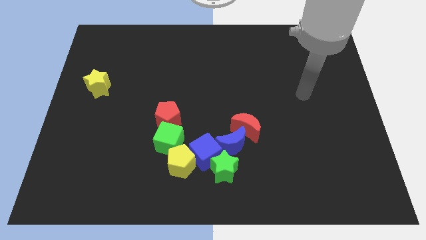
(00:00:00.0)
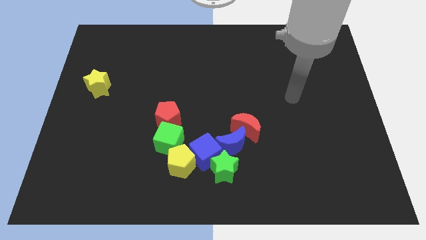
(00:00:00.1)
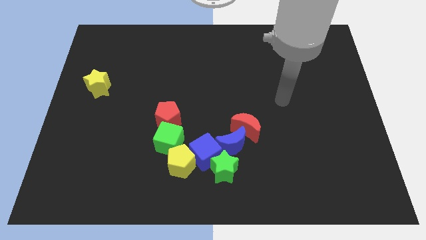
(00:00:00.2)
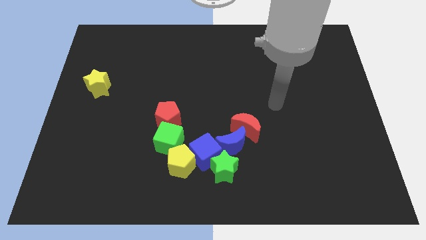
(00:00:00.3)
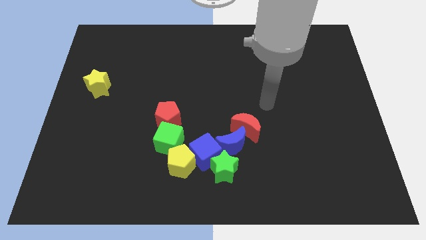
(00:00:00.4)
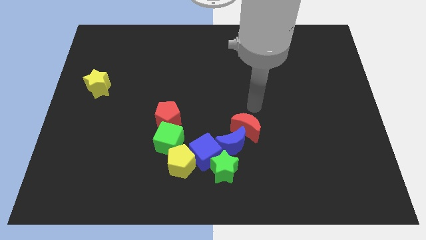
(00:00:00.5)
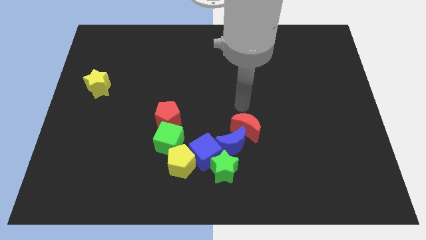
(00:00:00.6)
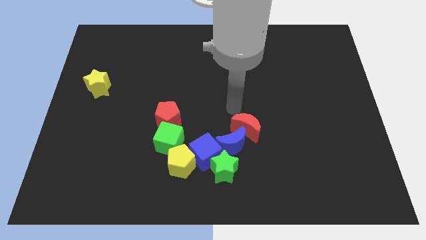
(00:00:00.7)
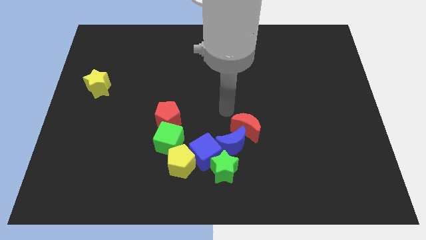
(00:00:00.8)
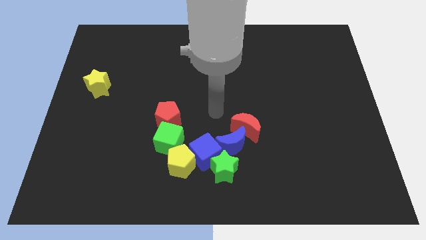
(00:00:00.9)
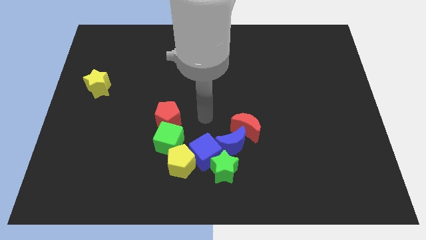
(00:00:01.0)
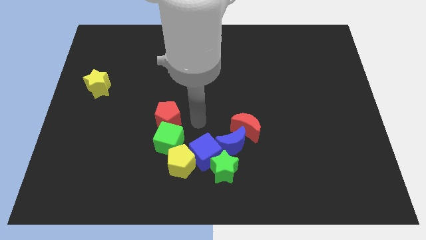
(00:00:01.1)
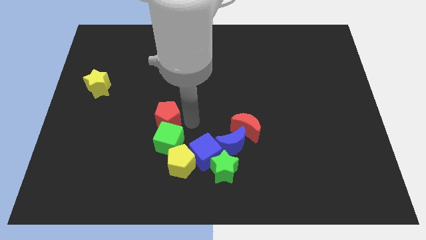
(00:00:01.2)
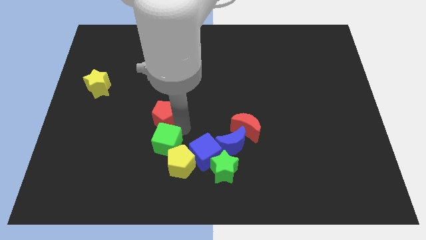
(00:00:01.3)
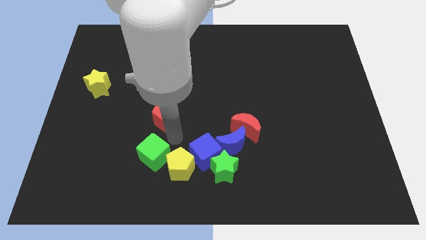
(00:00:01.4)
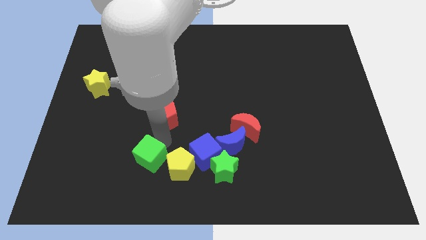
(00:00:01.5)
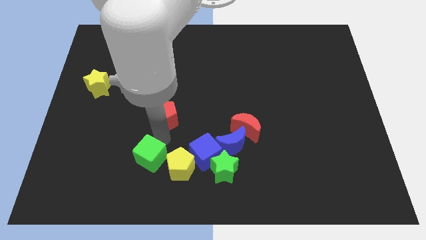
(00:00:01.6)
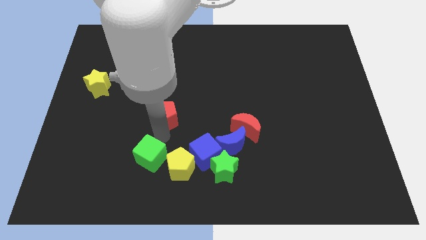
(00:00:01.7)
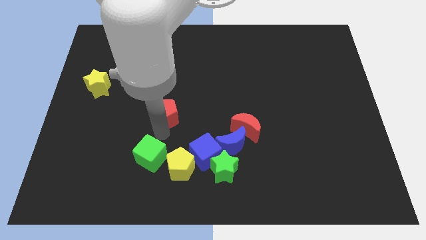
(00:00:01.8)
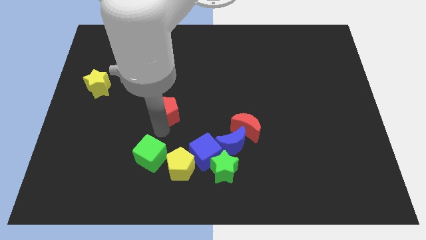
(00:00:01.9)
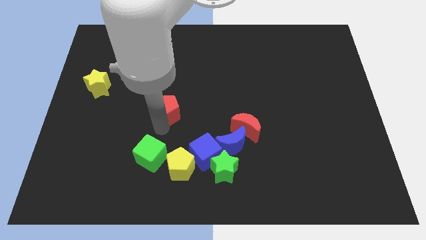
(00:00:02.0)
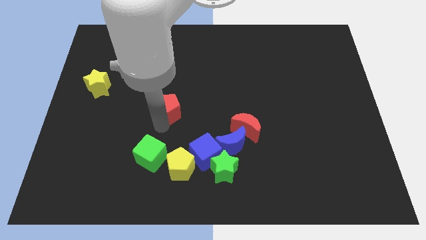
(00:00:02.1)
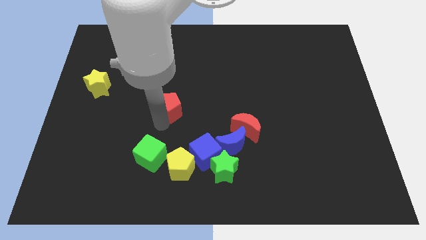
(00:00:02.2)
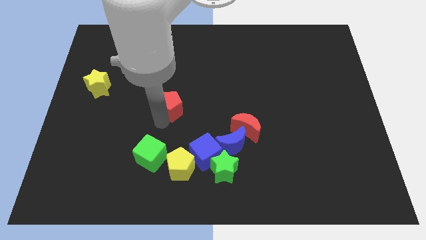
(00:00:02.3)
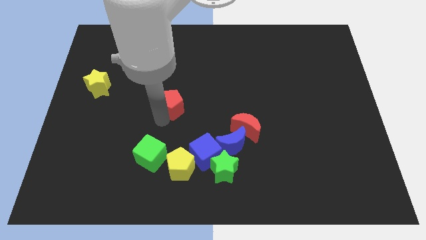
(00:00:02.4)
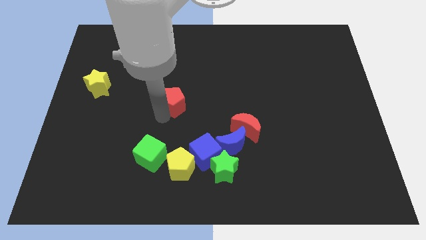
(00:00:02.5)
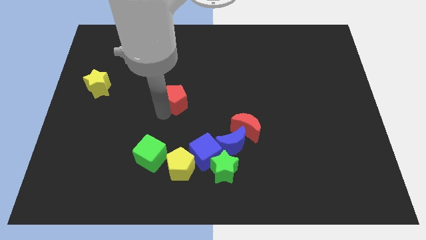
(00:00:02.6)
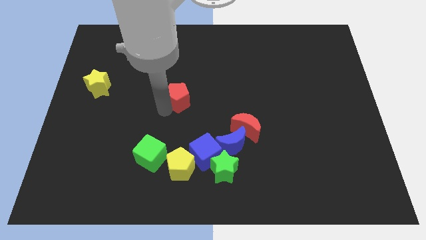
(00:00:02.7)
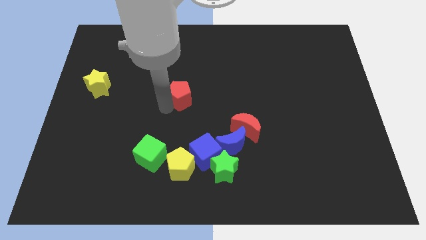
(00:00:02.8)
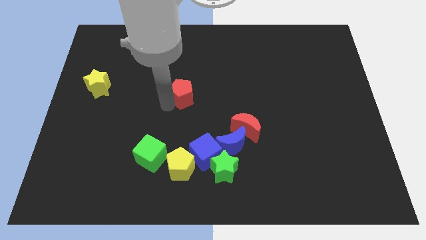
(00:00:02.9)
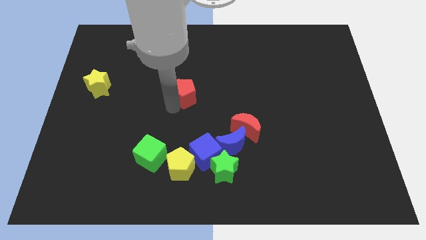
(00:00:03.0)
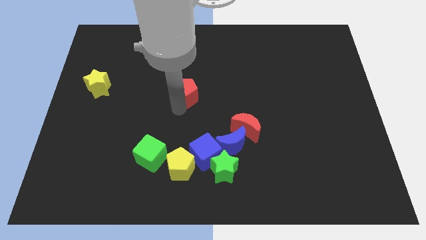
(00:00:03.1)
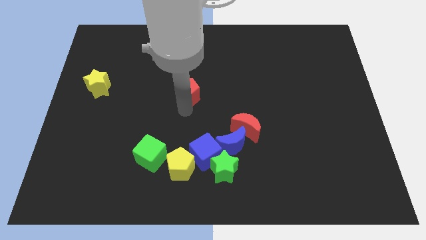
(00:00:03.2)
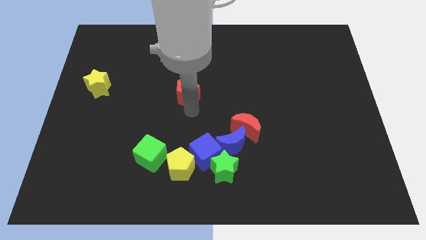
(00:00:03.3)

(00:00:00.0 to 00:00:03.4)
move the red pentagon upwards slightly

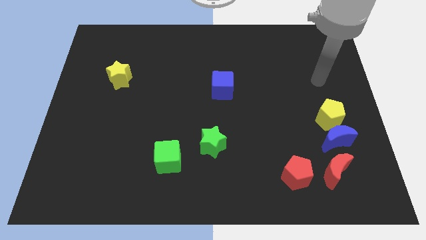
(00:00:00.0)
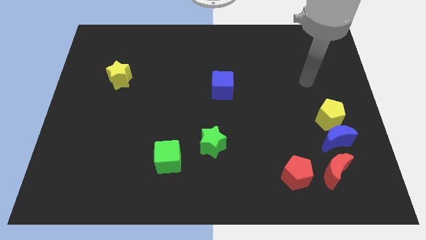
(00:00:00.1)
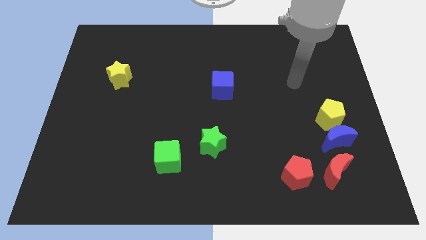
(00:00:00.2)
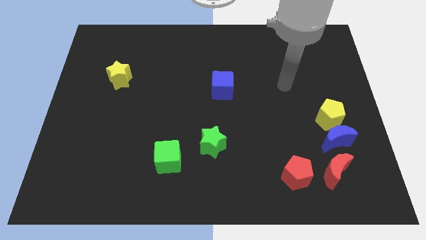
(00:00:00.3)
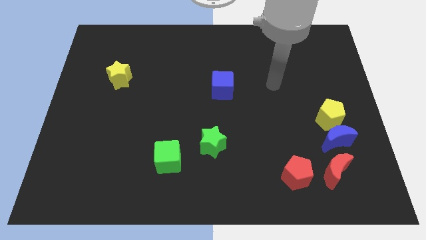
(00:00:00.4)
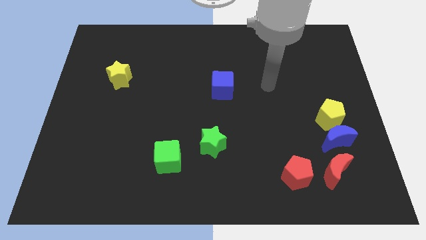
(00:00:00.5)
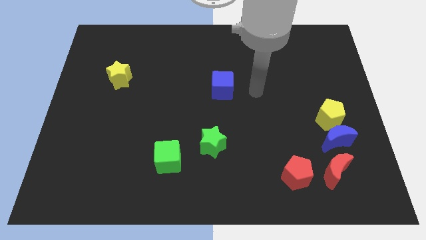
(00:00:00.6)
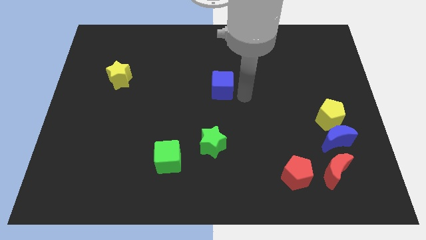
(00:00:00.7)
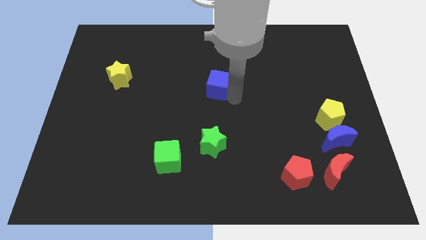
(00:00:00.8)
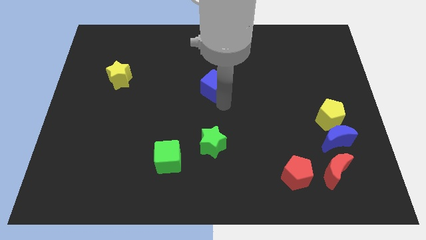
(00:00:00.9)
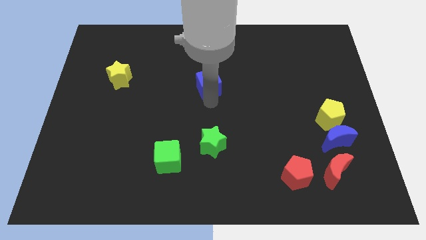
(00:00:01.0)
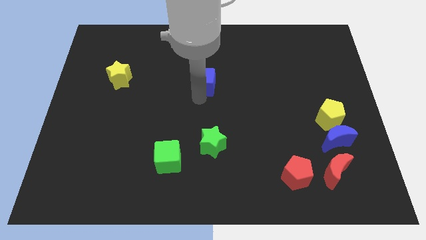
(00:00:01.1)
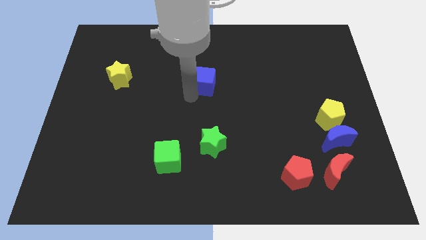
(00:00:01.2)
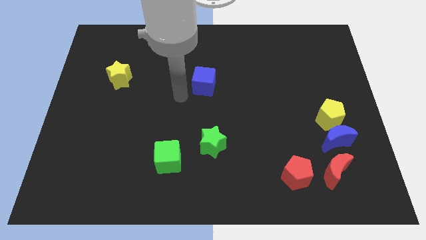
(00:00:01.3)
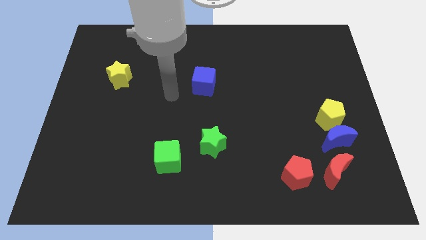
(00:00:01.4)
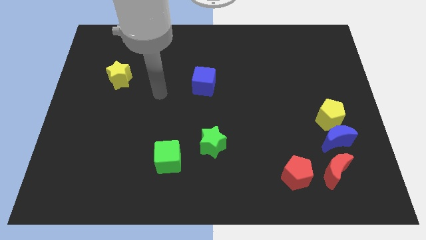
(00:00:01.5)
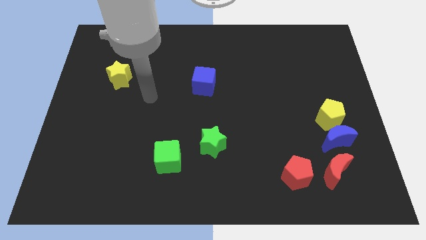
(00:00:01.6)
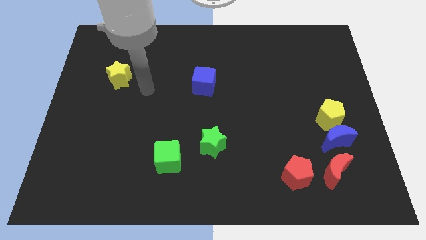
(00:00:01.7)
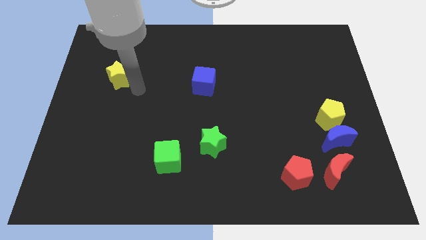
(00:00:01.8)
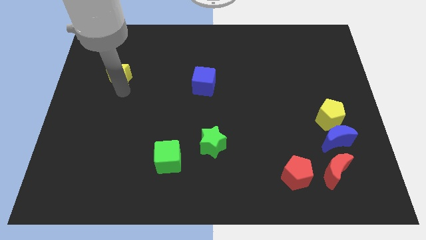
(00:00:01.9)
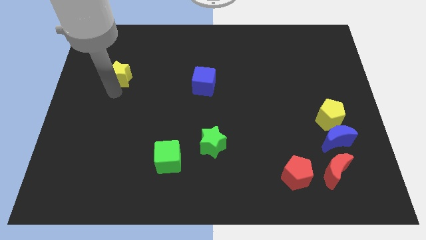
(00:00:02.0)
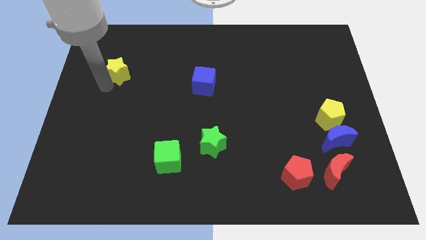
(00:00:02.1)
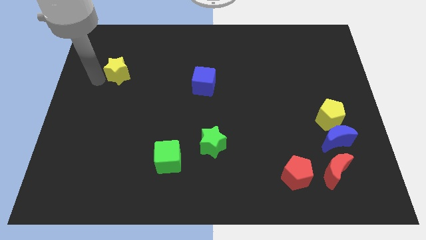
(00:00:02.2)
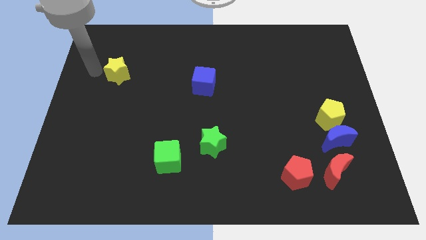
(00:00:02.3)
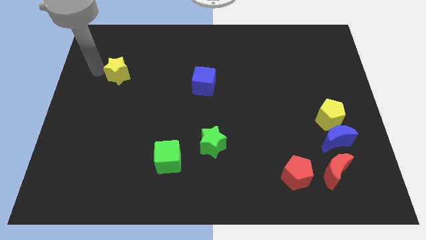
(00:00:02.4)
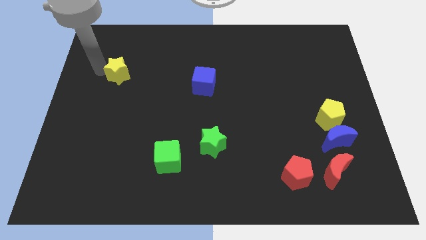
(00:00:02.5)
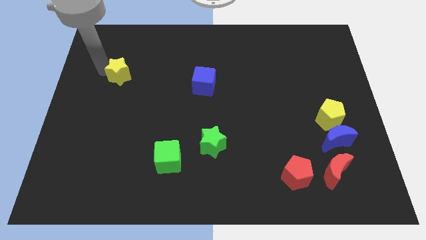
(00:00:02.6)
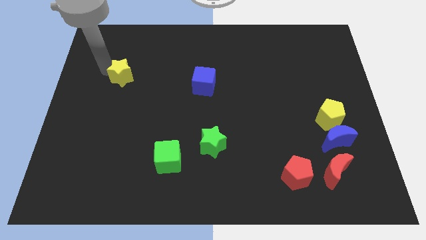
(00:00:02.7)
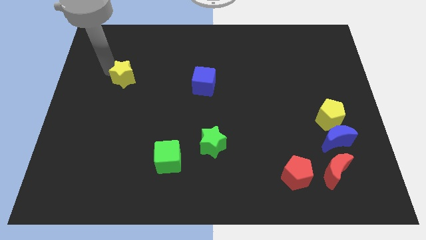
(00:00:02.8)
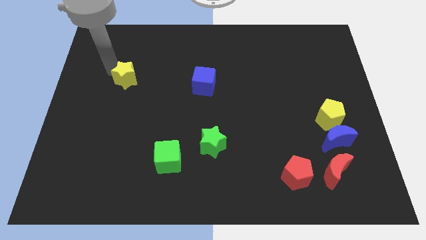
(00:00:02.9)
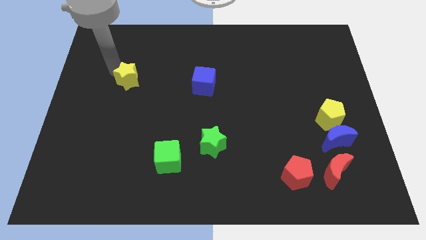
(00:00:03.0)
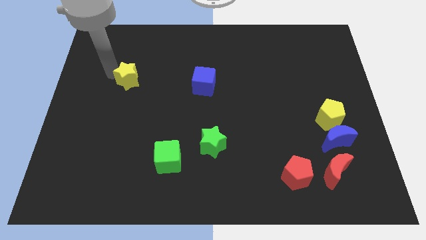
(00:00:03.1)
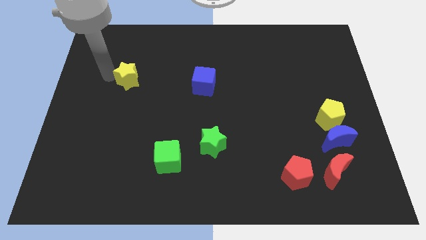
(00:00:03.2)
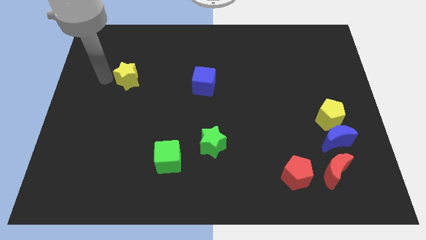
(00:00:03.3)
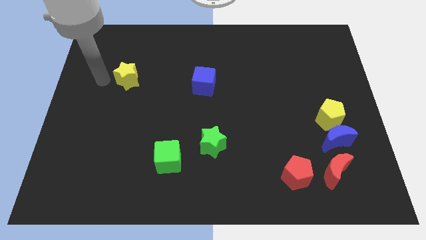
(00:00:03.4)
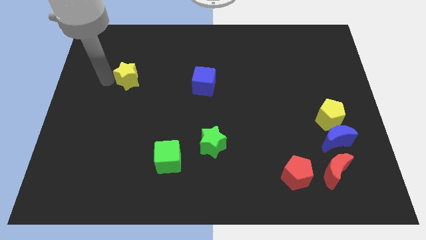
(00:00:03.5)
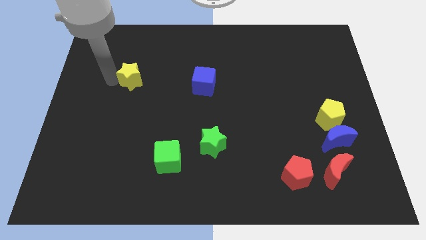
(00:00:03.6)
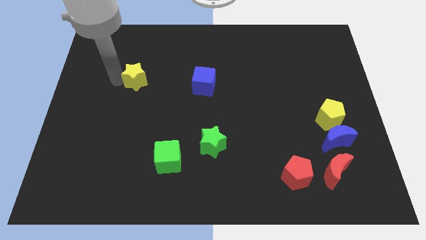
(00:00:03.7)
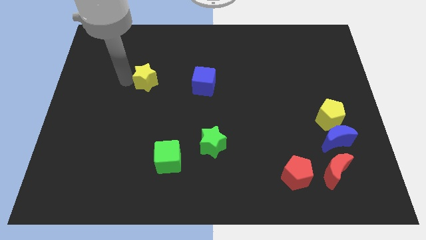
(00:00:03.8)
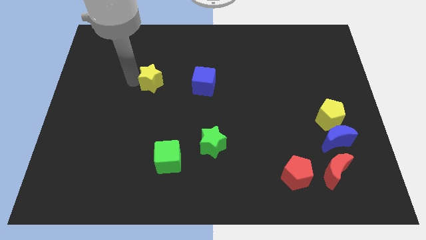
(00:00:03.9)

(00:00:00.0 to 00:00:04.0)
slightly slide the yellow star to the right

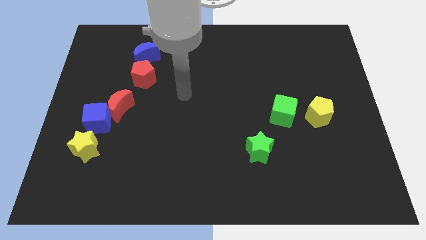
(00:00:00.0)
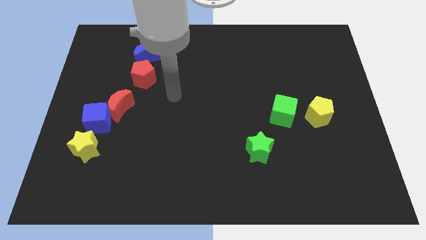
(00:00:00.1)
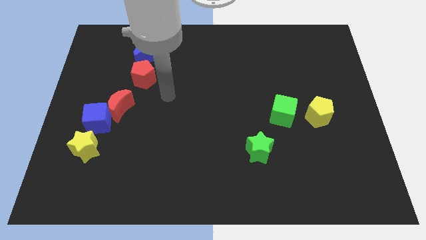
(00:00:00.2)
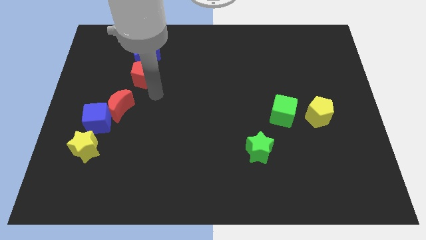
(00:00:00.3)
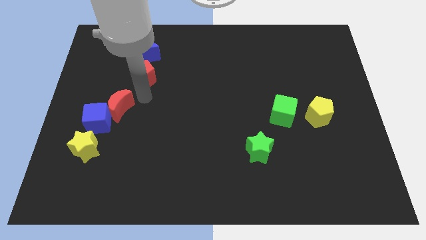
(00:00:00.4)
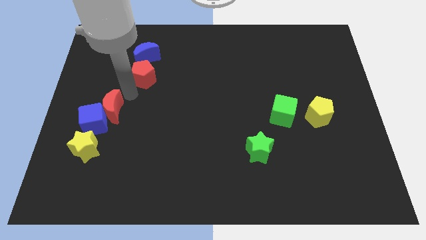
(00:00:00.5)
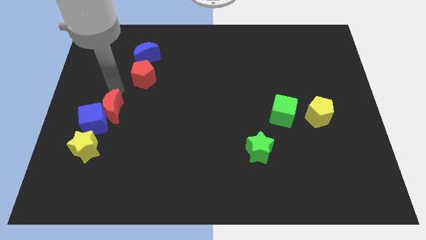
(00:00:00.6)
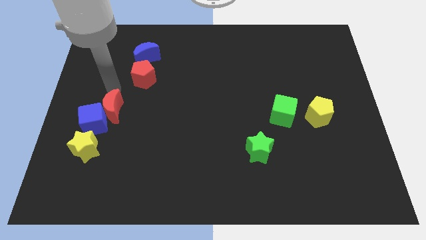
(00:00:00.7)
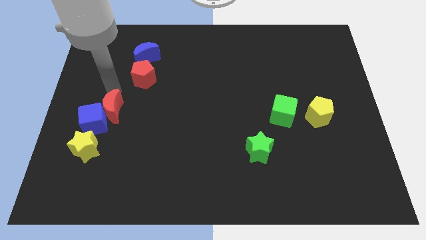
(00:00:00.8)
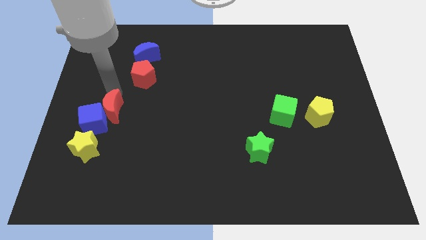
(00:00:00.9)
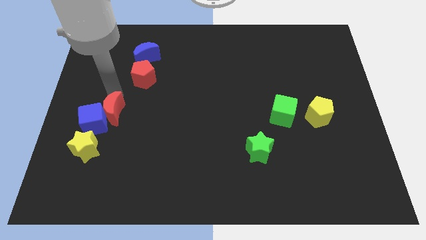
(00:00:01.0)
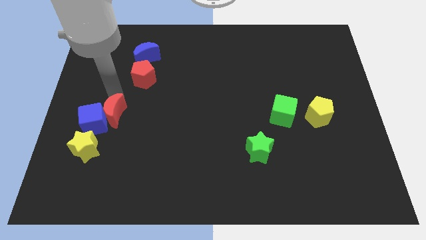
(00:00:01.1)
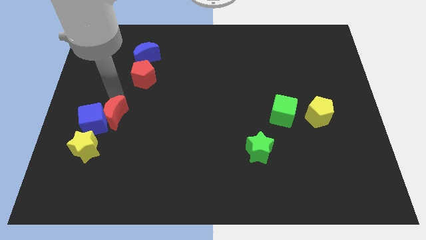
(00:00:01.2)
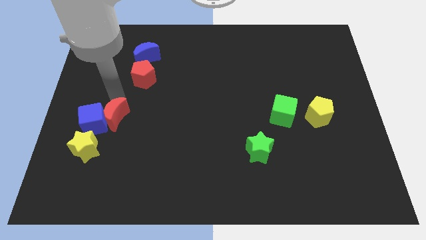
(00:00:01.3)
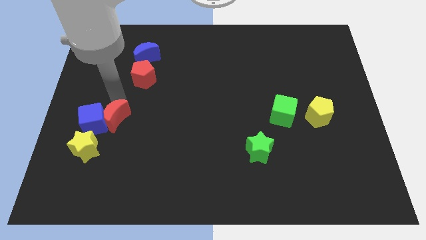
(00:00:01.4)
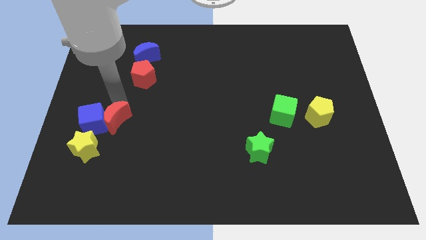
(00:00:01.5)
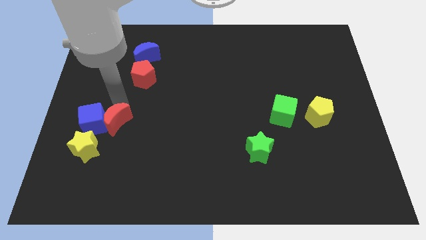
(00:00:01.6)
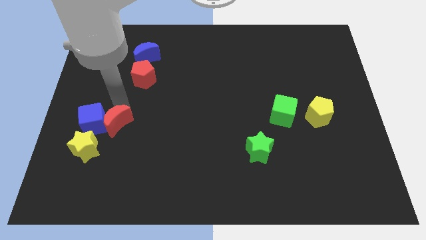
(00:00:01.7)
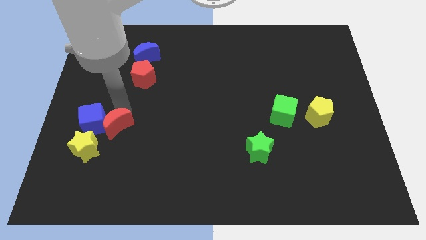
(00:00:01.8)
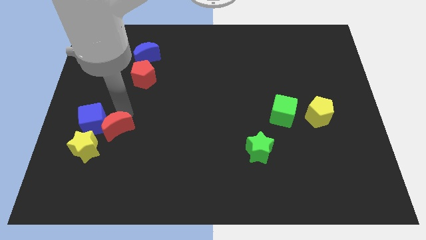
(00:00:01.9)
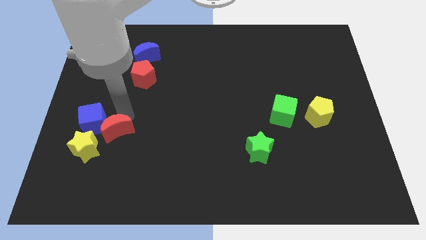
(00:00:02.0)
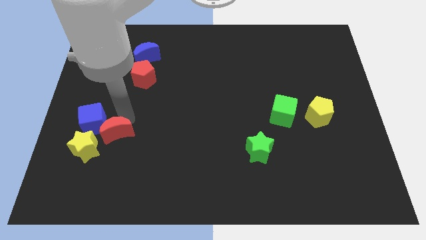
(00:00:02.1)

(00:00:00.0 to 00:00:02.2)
slightly push the red moon downwards
